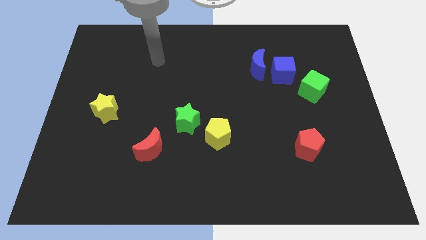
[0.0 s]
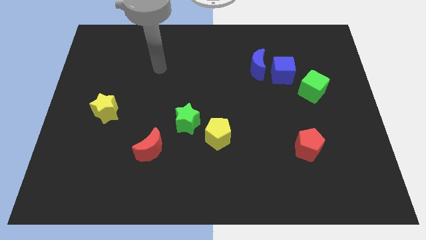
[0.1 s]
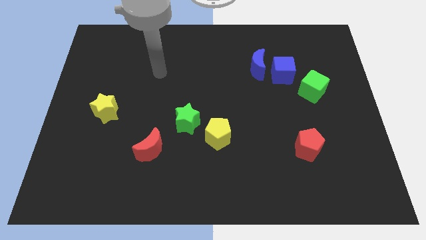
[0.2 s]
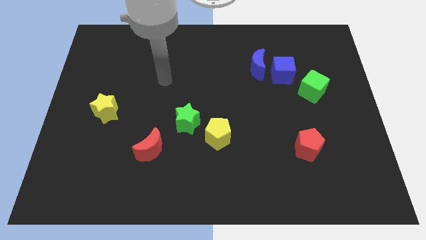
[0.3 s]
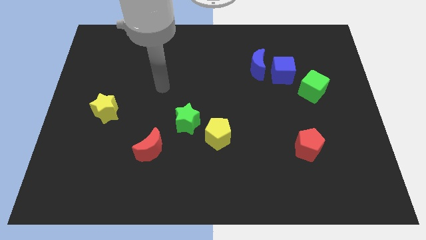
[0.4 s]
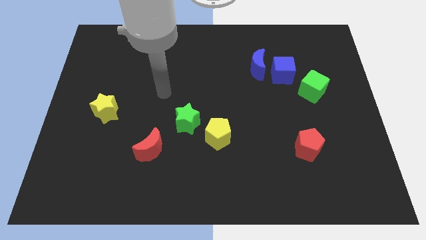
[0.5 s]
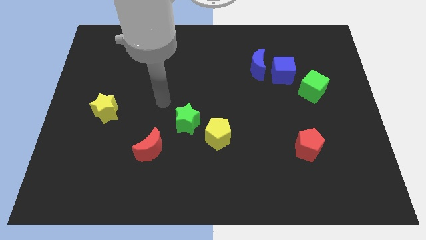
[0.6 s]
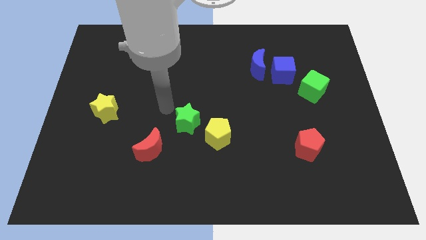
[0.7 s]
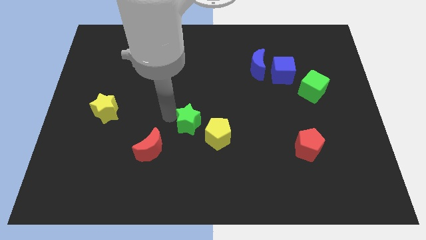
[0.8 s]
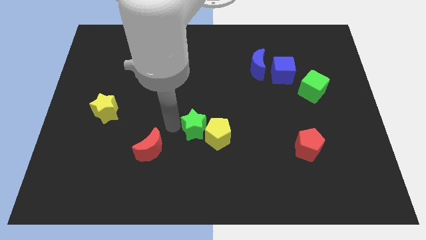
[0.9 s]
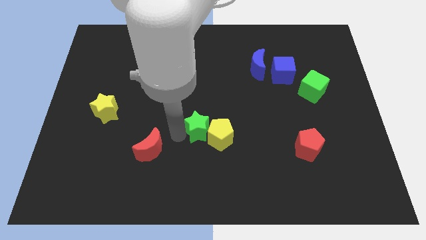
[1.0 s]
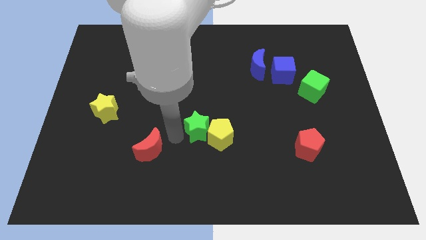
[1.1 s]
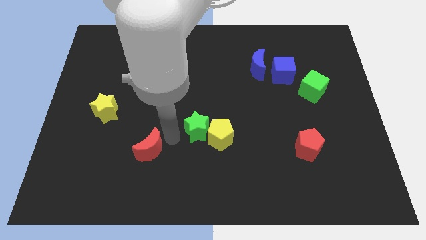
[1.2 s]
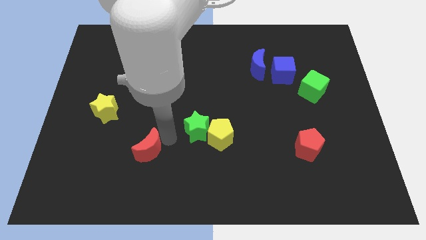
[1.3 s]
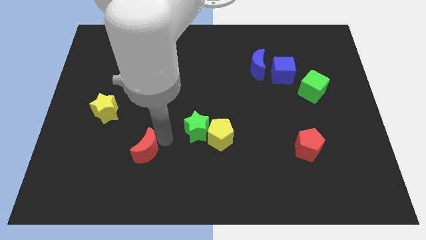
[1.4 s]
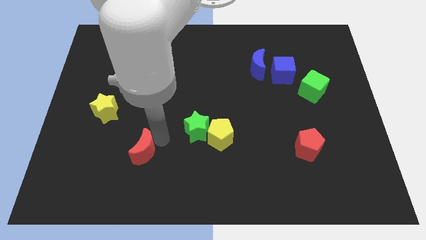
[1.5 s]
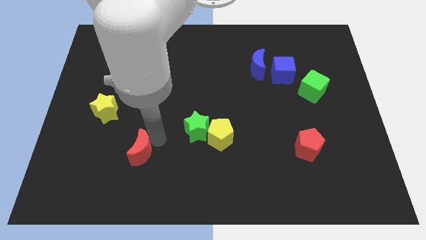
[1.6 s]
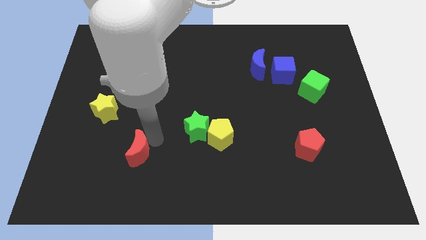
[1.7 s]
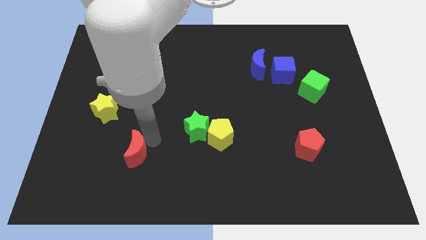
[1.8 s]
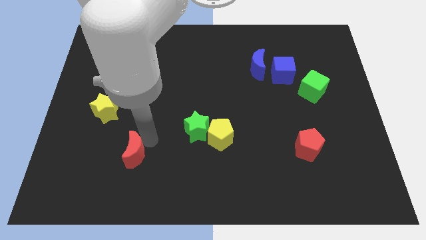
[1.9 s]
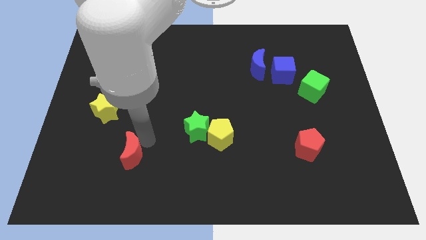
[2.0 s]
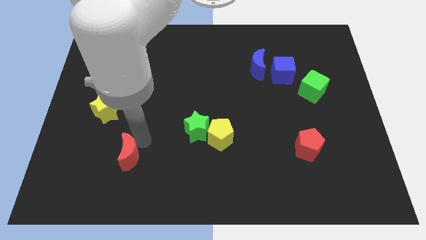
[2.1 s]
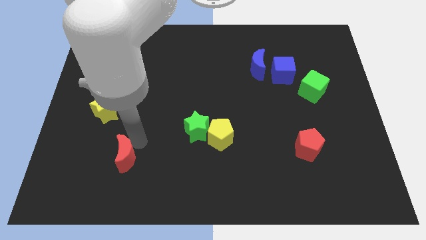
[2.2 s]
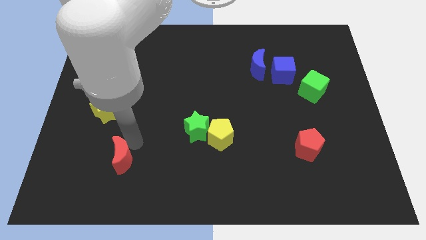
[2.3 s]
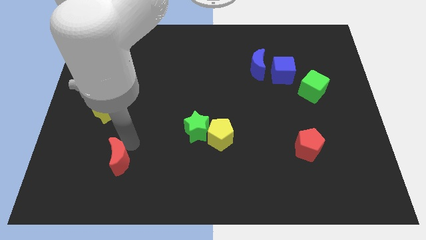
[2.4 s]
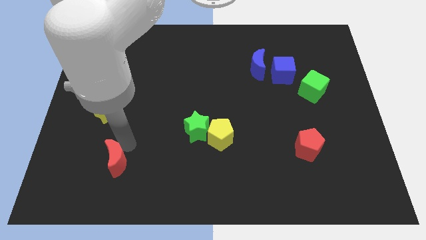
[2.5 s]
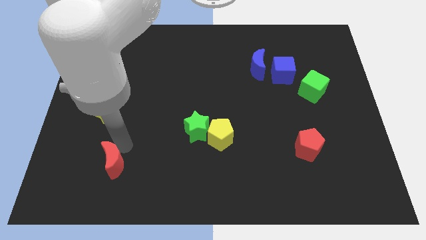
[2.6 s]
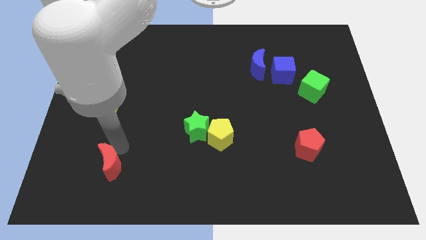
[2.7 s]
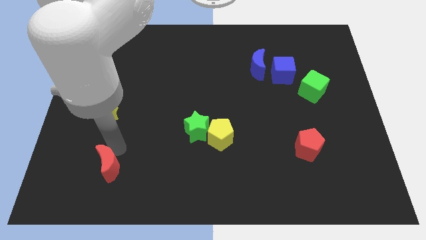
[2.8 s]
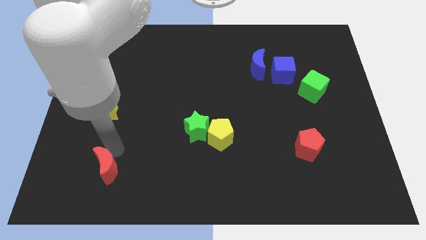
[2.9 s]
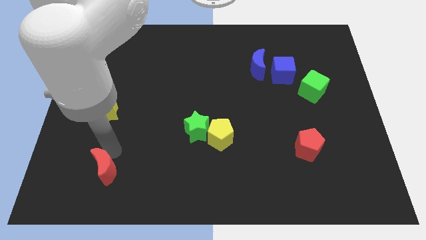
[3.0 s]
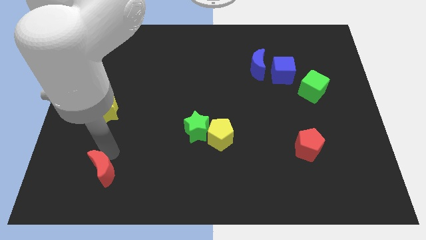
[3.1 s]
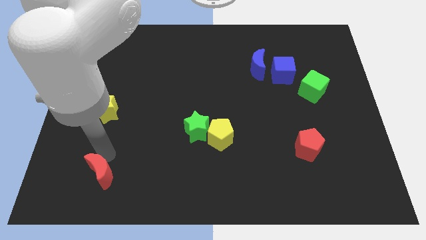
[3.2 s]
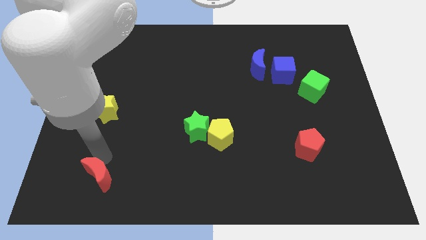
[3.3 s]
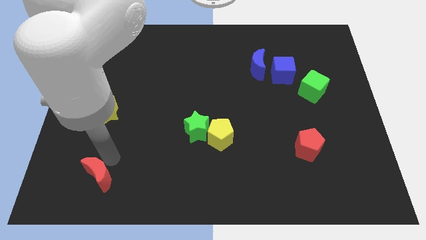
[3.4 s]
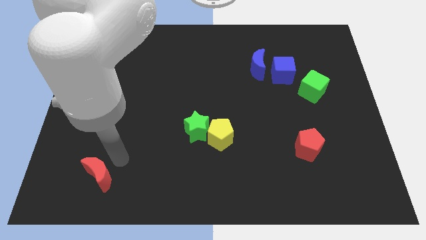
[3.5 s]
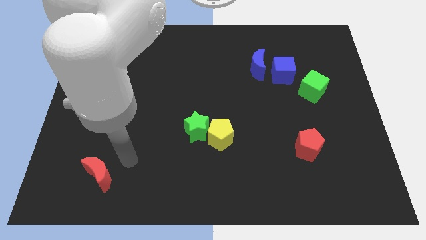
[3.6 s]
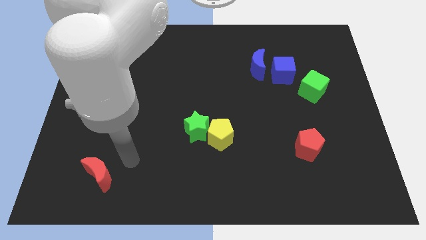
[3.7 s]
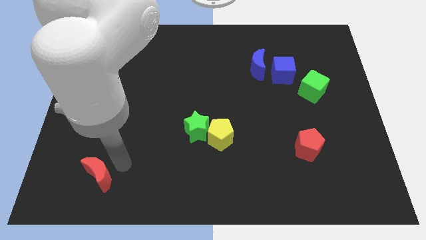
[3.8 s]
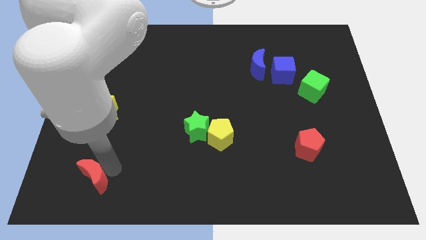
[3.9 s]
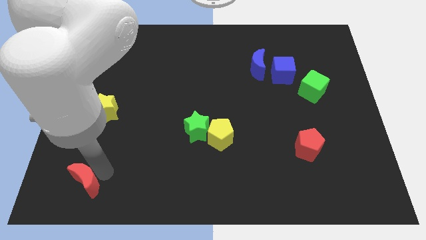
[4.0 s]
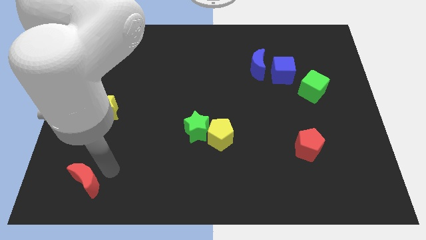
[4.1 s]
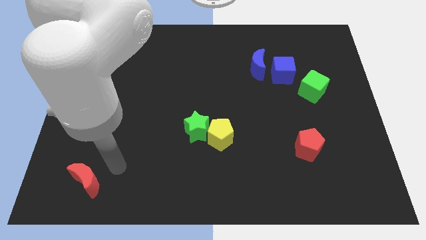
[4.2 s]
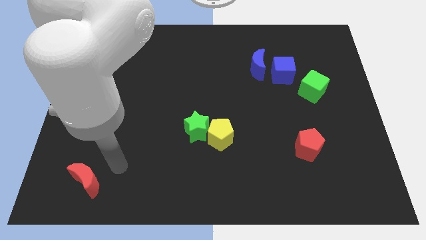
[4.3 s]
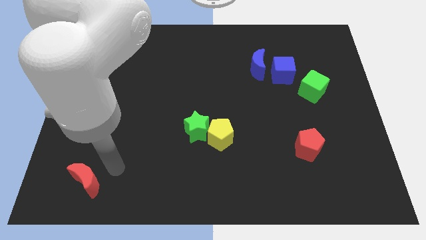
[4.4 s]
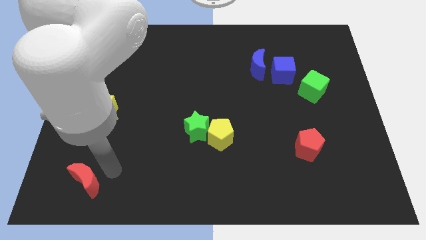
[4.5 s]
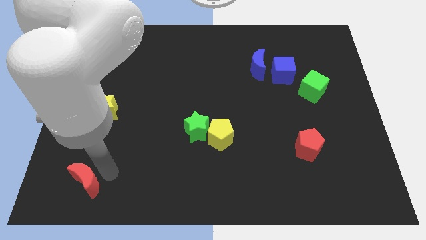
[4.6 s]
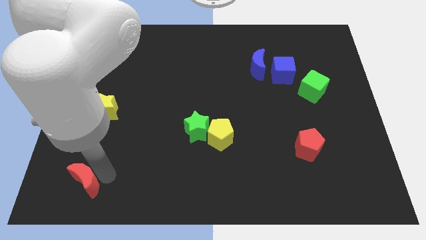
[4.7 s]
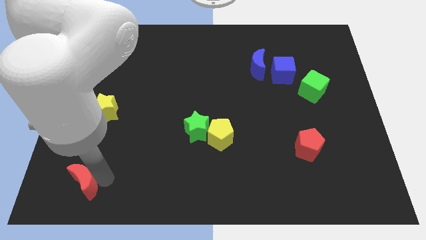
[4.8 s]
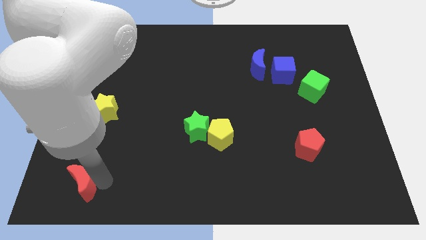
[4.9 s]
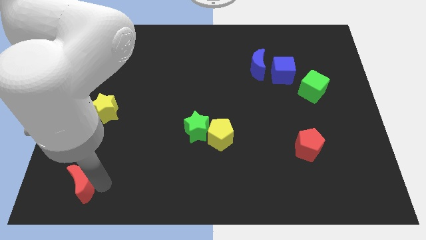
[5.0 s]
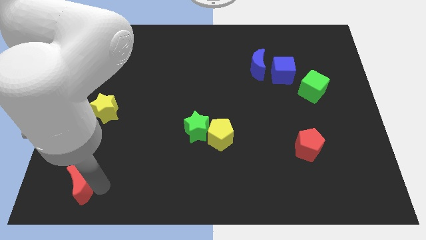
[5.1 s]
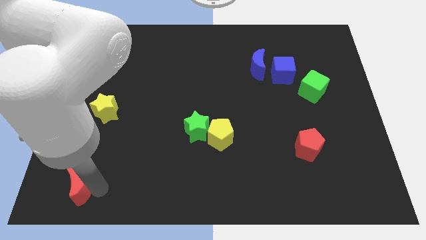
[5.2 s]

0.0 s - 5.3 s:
push the red moon to the lower left corner

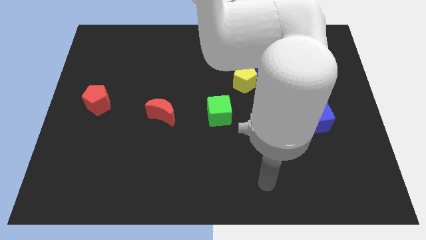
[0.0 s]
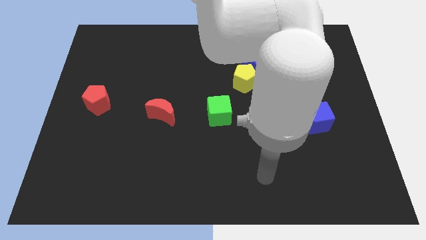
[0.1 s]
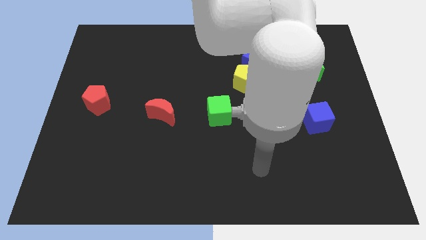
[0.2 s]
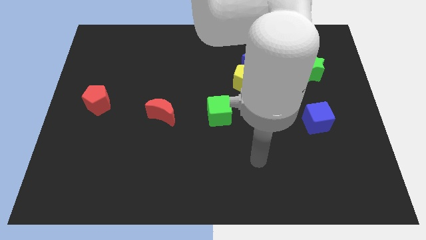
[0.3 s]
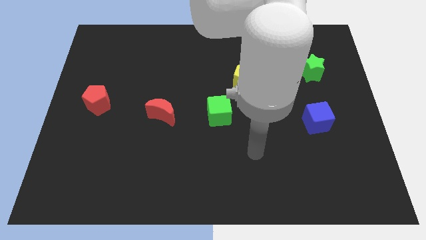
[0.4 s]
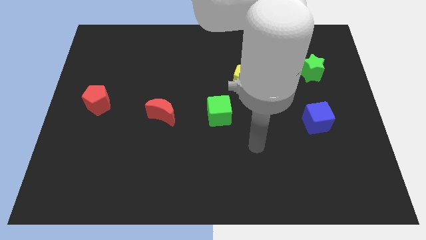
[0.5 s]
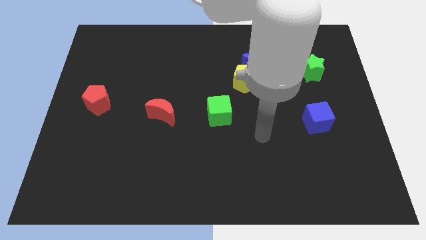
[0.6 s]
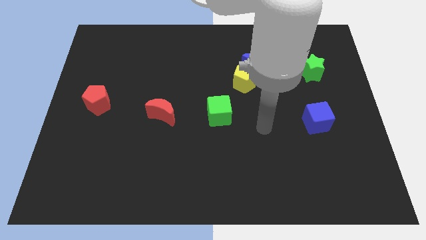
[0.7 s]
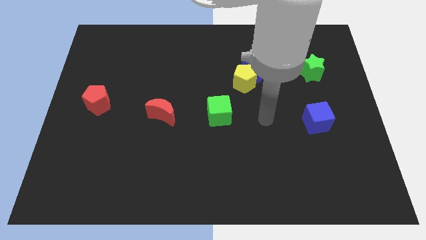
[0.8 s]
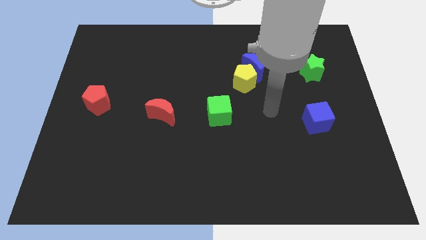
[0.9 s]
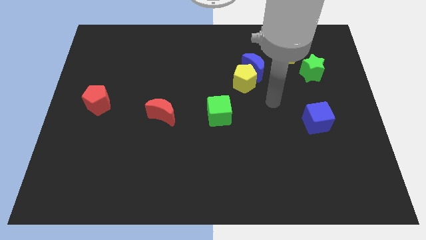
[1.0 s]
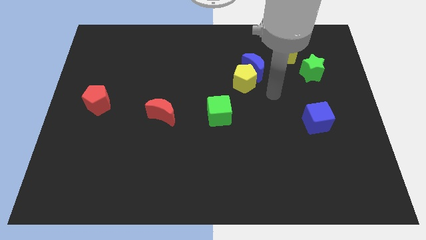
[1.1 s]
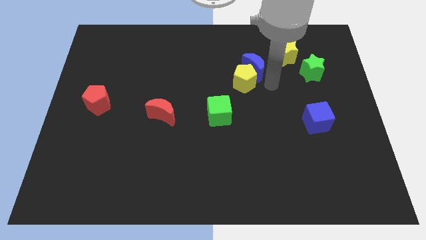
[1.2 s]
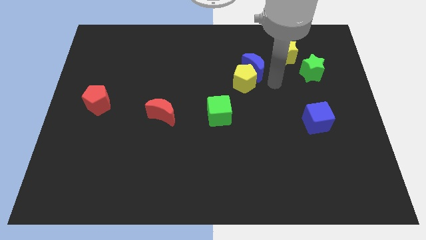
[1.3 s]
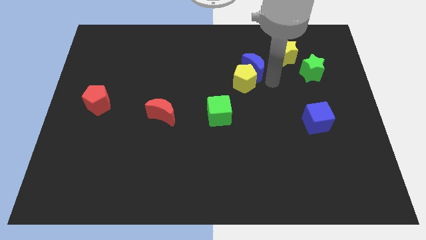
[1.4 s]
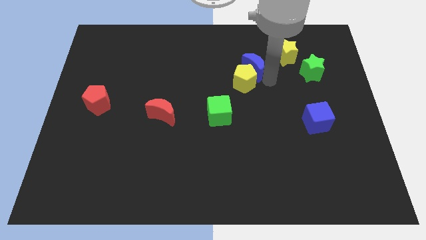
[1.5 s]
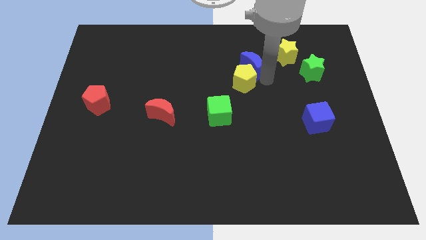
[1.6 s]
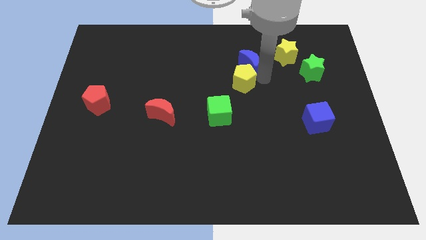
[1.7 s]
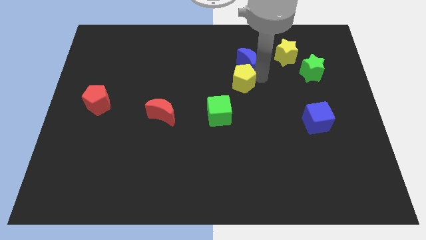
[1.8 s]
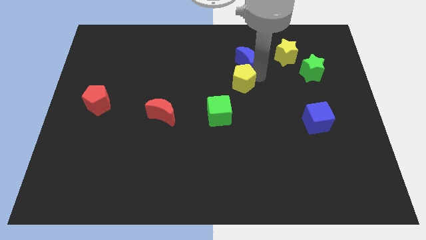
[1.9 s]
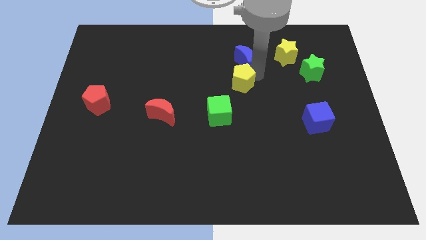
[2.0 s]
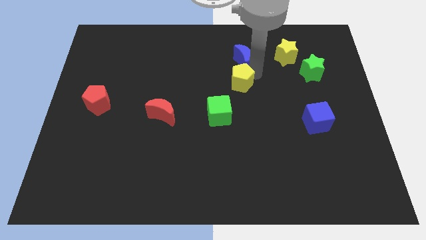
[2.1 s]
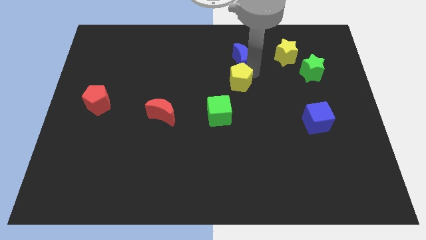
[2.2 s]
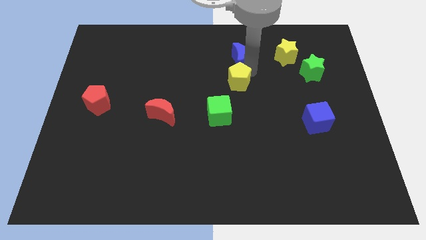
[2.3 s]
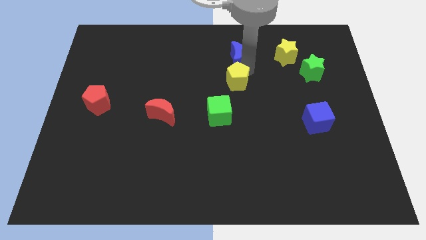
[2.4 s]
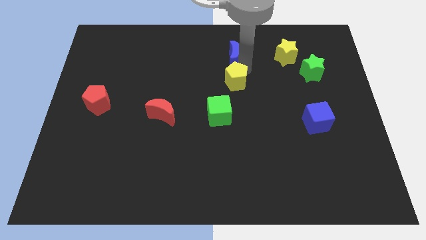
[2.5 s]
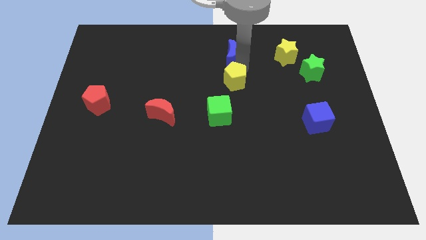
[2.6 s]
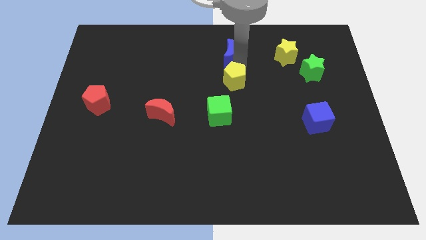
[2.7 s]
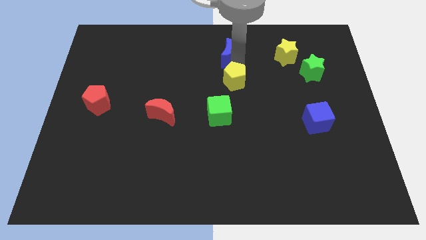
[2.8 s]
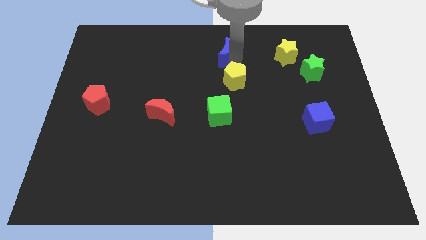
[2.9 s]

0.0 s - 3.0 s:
move the blue moon to the towards your base
